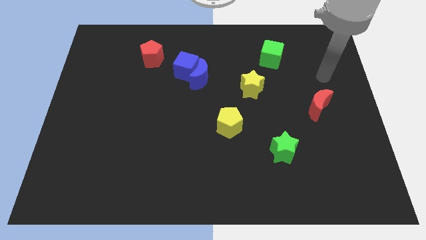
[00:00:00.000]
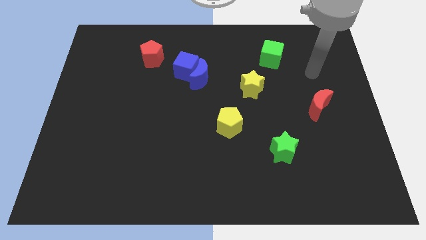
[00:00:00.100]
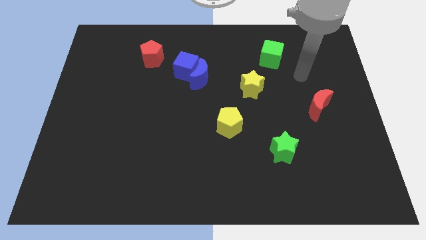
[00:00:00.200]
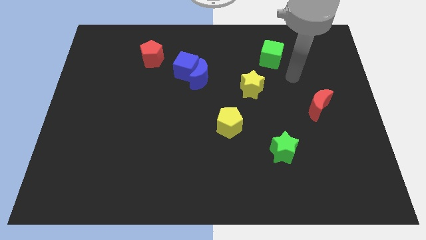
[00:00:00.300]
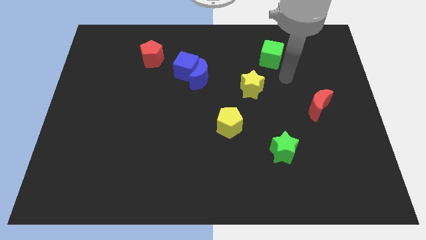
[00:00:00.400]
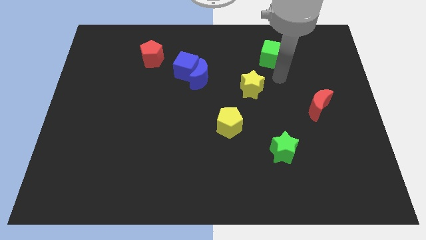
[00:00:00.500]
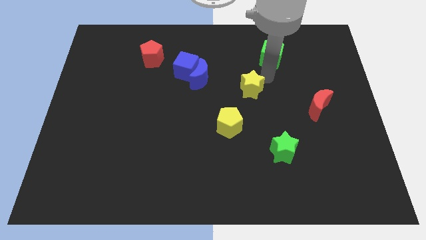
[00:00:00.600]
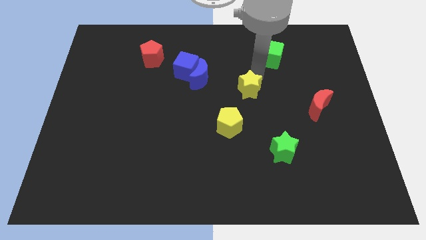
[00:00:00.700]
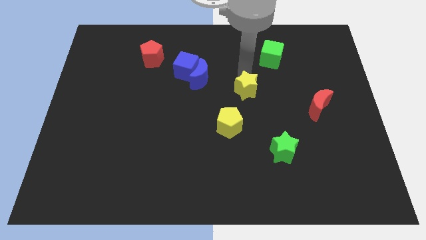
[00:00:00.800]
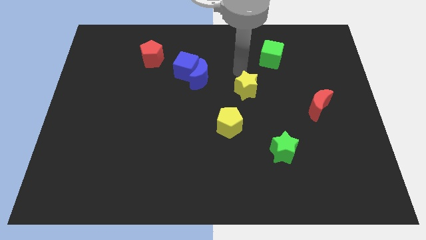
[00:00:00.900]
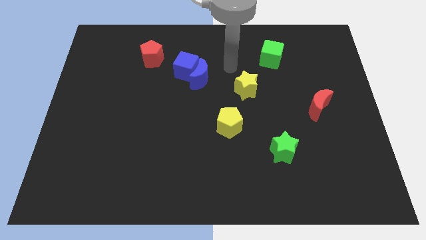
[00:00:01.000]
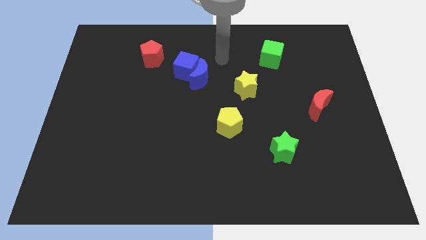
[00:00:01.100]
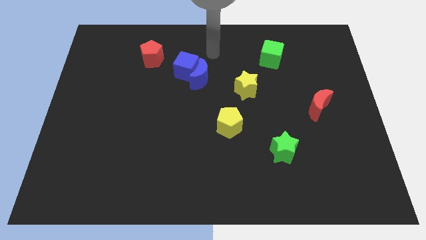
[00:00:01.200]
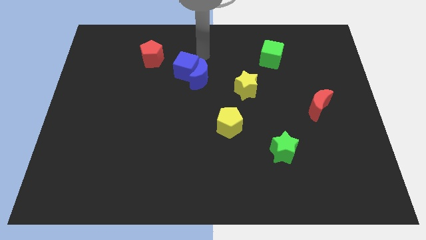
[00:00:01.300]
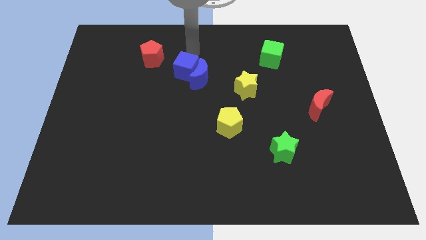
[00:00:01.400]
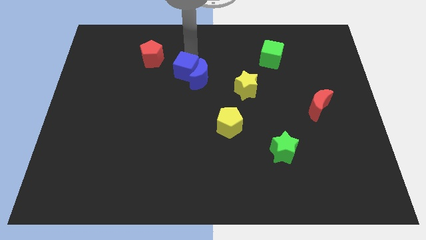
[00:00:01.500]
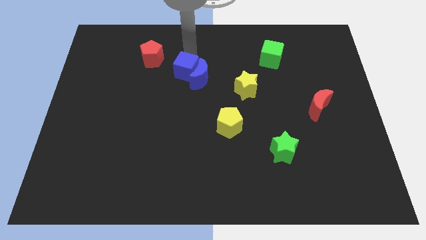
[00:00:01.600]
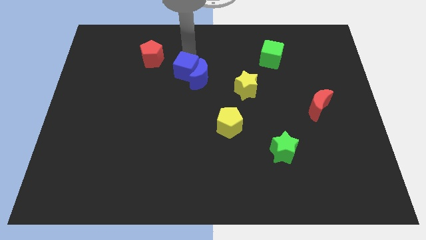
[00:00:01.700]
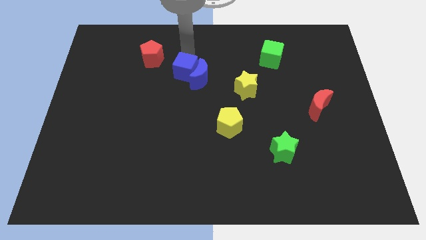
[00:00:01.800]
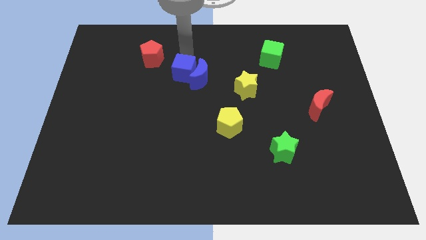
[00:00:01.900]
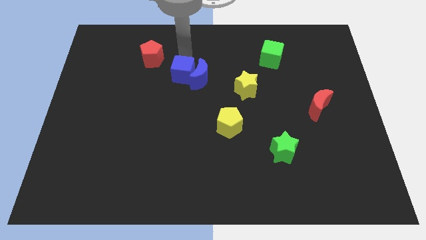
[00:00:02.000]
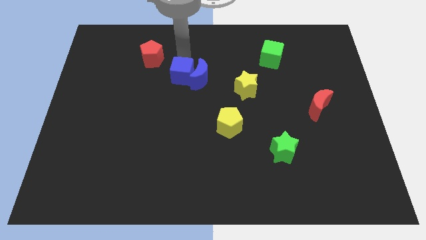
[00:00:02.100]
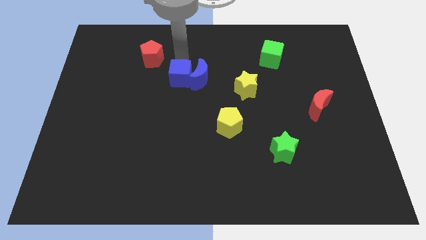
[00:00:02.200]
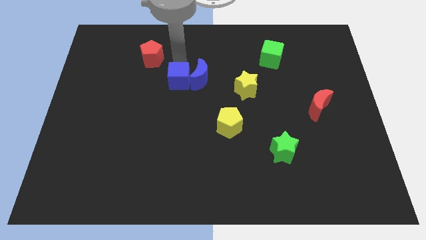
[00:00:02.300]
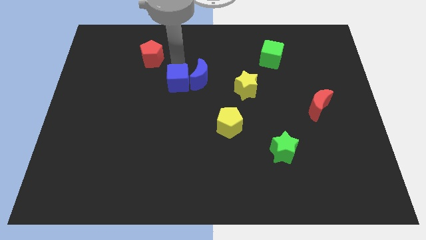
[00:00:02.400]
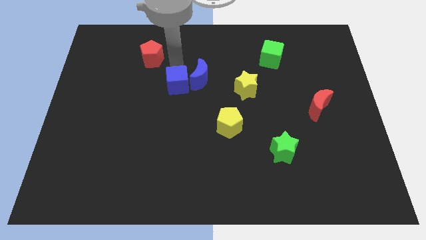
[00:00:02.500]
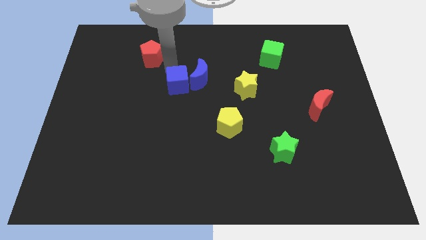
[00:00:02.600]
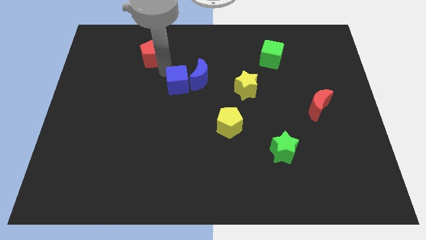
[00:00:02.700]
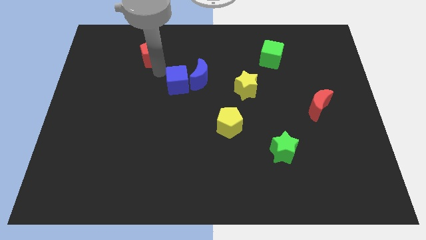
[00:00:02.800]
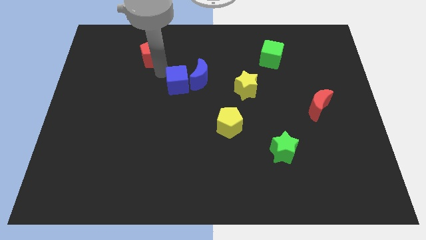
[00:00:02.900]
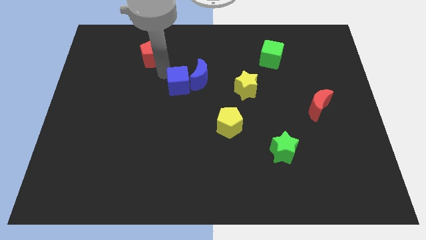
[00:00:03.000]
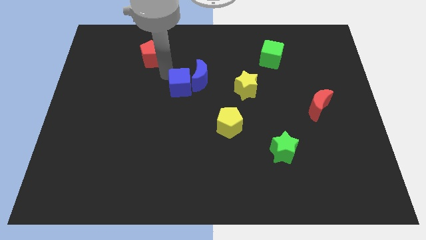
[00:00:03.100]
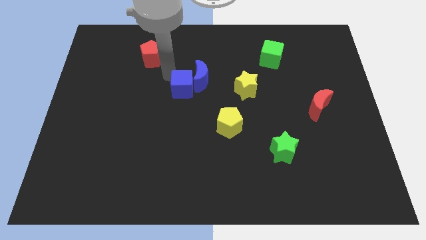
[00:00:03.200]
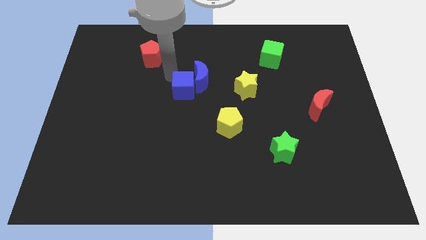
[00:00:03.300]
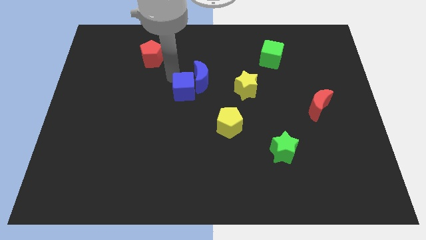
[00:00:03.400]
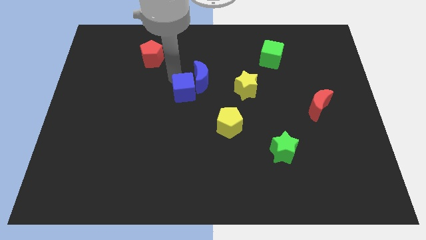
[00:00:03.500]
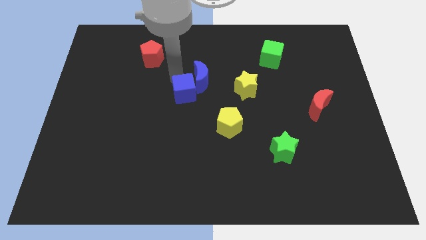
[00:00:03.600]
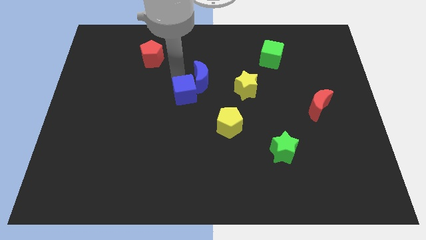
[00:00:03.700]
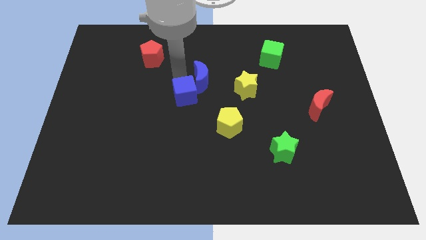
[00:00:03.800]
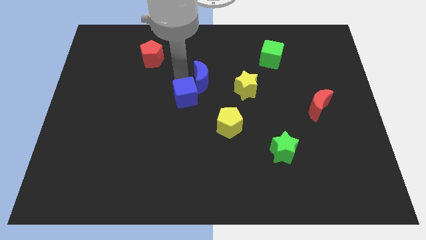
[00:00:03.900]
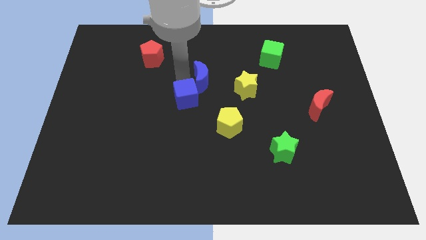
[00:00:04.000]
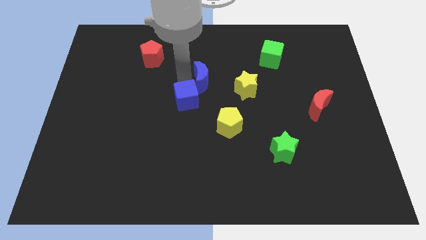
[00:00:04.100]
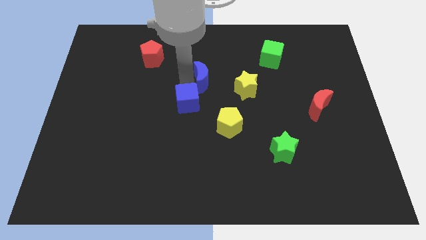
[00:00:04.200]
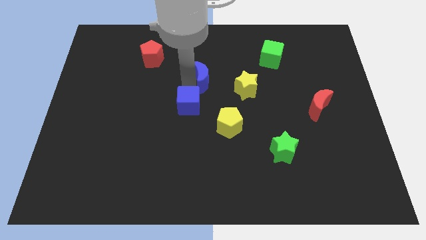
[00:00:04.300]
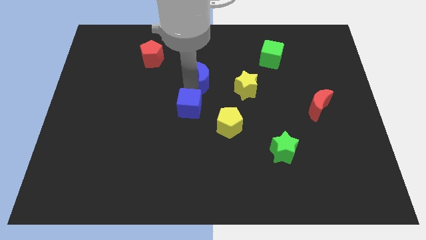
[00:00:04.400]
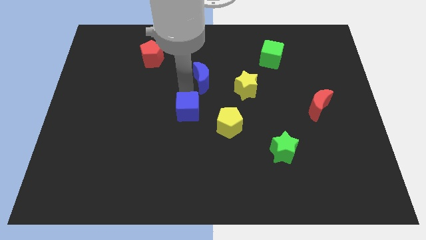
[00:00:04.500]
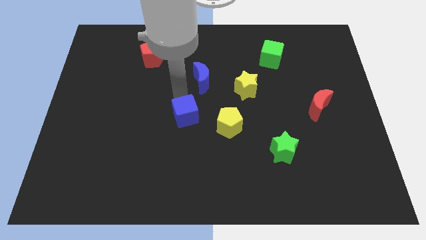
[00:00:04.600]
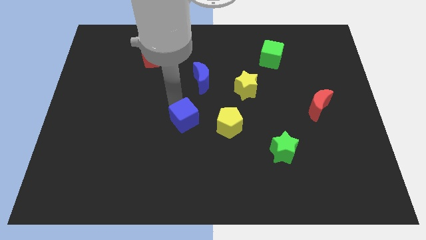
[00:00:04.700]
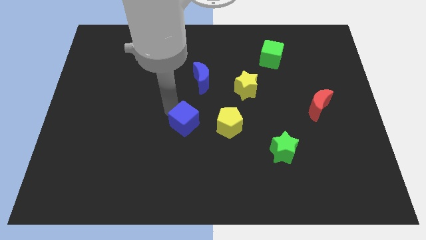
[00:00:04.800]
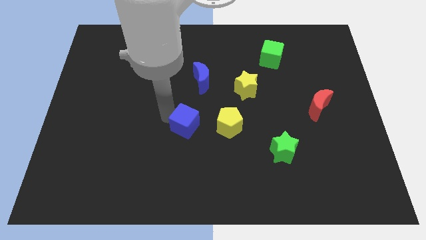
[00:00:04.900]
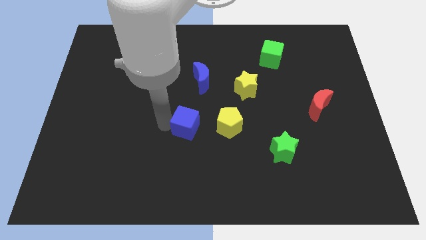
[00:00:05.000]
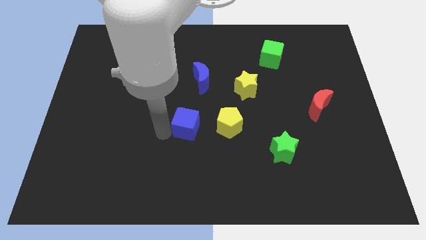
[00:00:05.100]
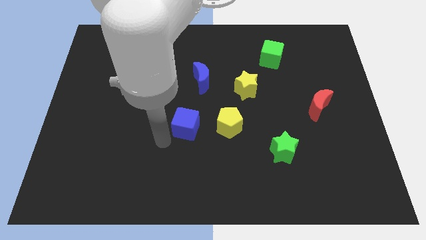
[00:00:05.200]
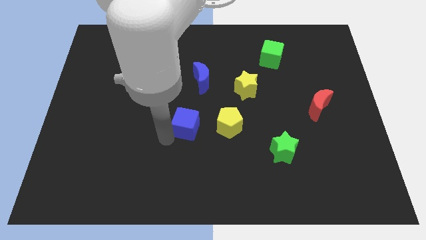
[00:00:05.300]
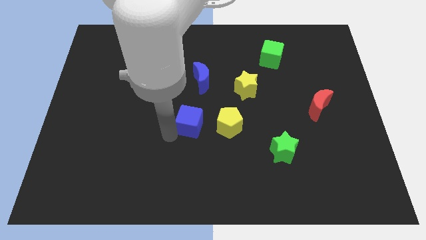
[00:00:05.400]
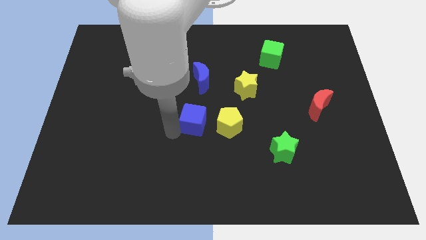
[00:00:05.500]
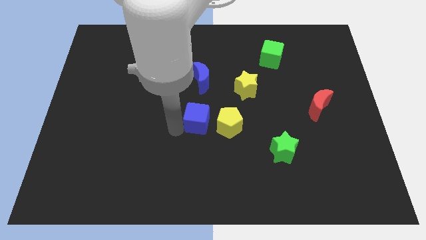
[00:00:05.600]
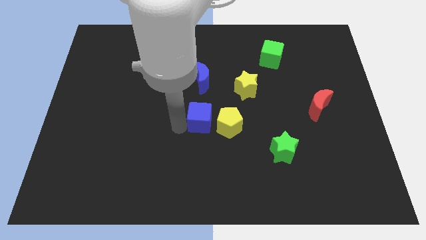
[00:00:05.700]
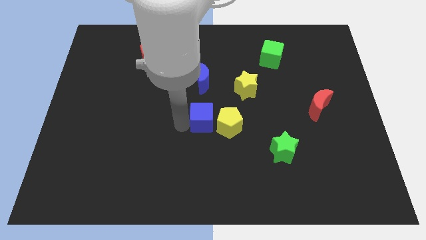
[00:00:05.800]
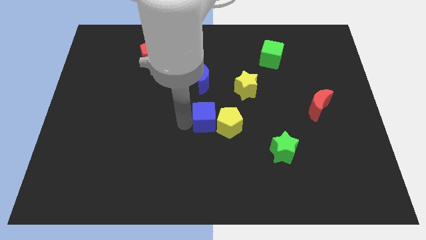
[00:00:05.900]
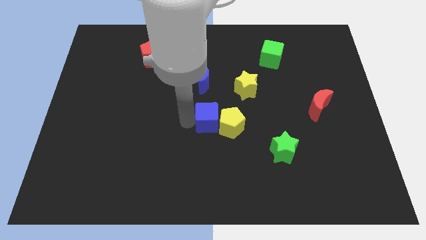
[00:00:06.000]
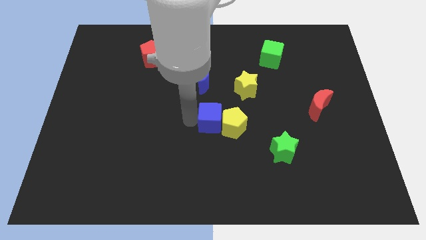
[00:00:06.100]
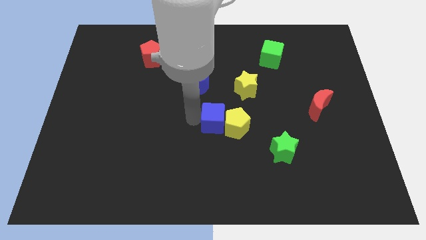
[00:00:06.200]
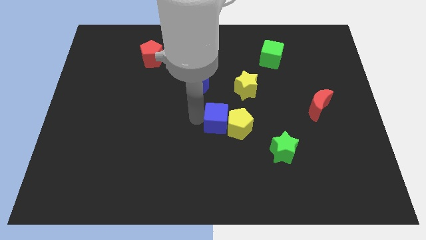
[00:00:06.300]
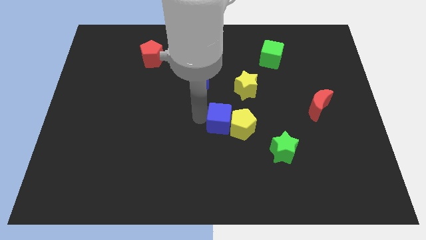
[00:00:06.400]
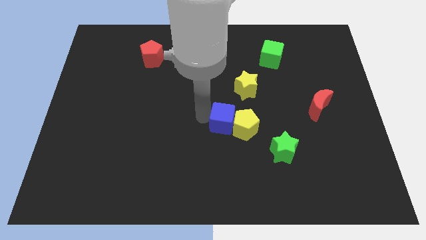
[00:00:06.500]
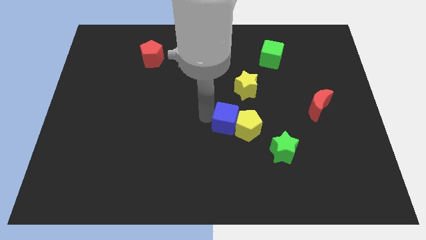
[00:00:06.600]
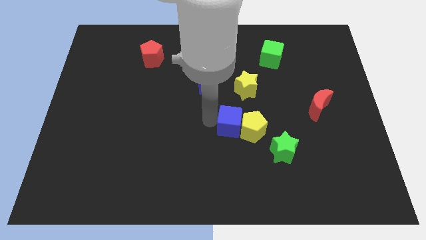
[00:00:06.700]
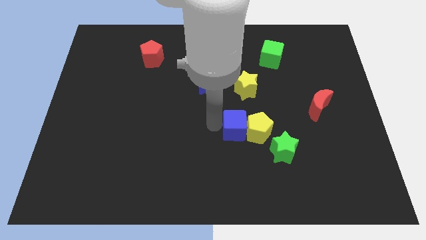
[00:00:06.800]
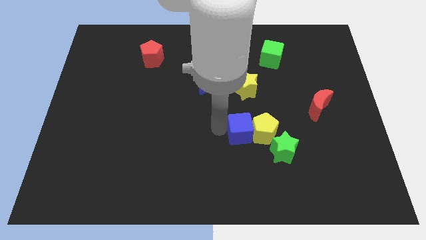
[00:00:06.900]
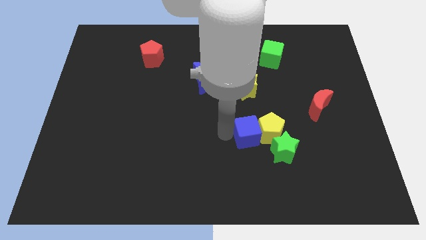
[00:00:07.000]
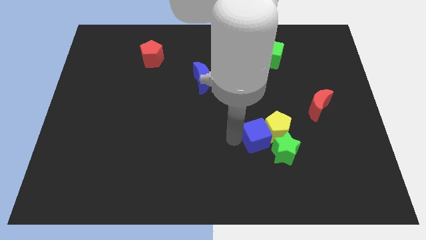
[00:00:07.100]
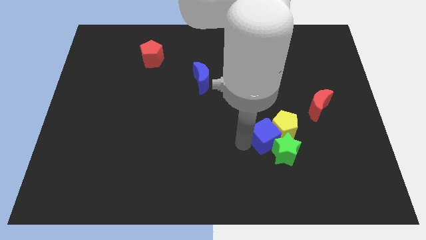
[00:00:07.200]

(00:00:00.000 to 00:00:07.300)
push the blue cube above the green star
